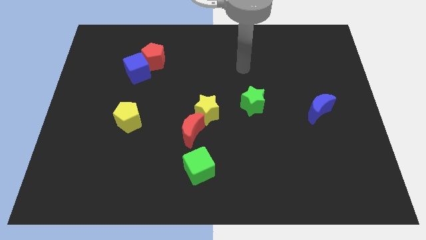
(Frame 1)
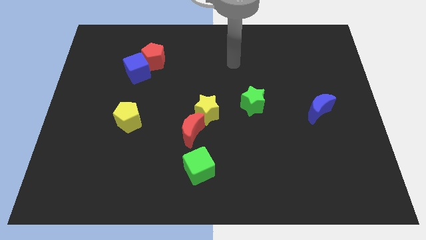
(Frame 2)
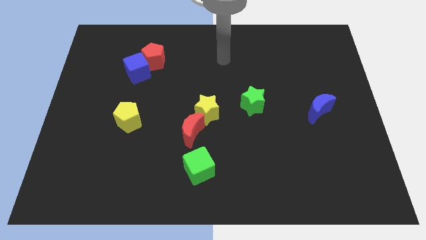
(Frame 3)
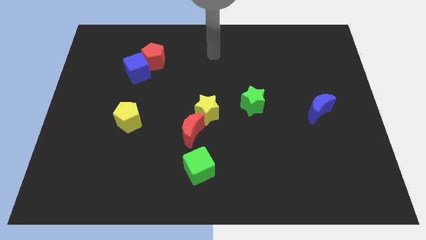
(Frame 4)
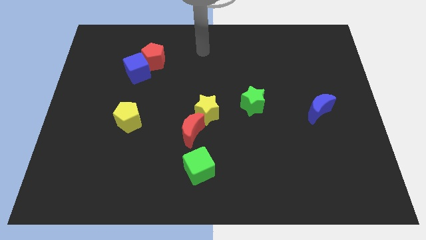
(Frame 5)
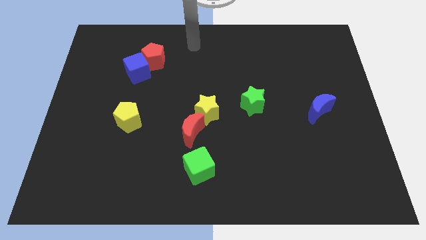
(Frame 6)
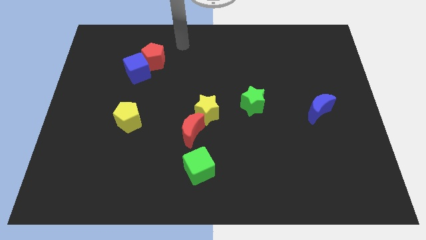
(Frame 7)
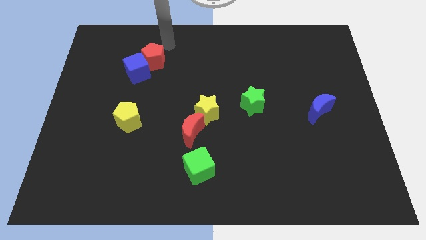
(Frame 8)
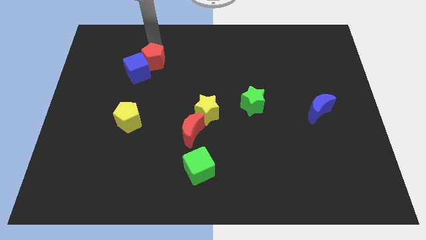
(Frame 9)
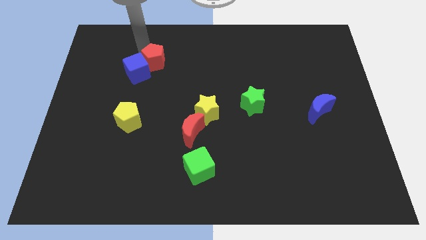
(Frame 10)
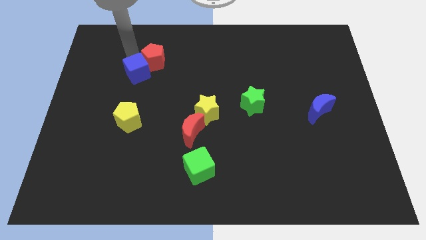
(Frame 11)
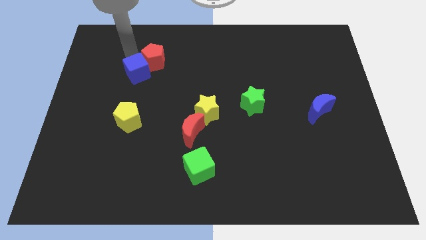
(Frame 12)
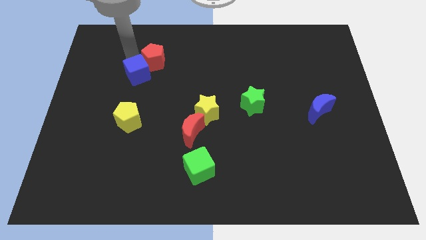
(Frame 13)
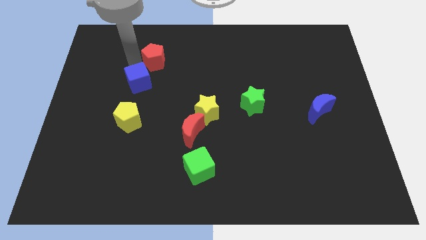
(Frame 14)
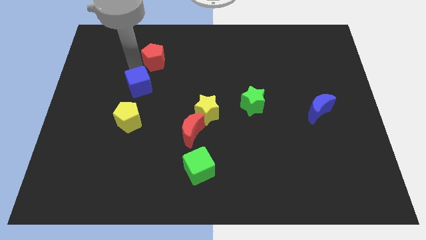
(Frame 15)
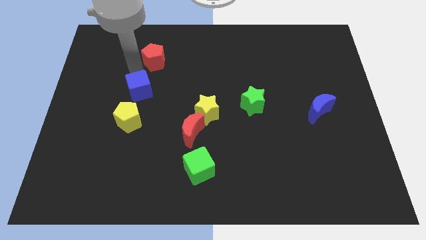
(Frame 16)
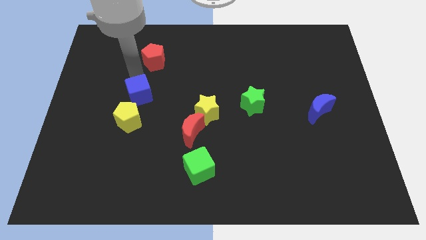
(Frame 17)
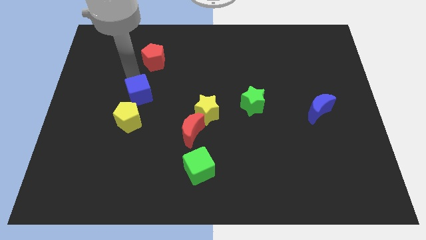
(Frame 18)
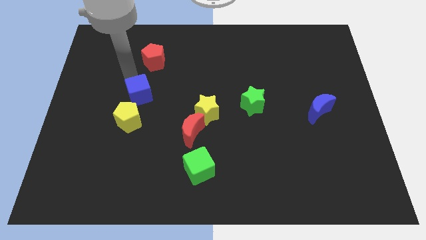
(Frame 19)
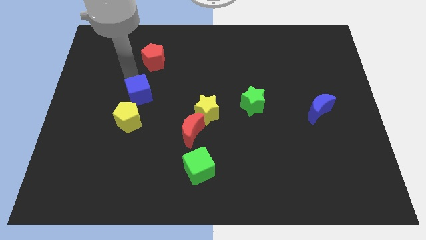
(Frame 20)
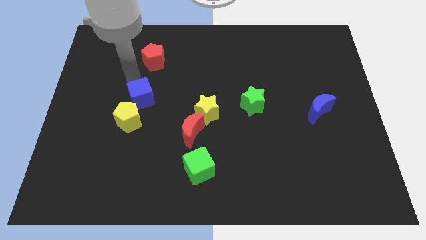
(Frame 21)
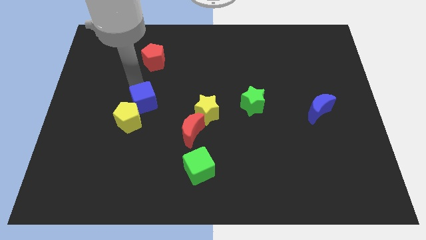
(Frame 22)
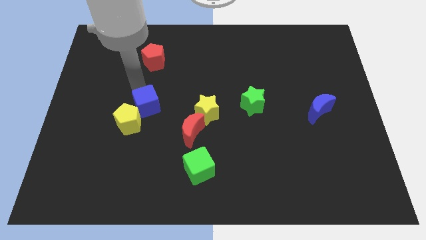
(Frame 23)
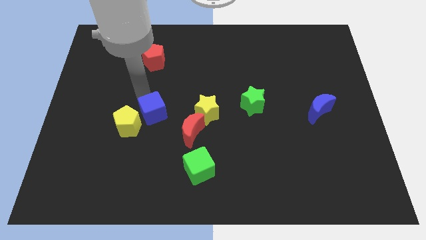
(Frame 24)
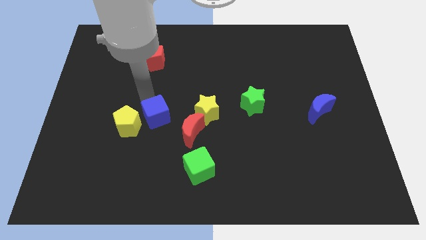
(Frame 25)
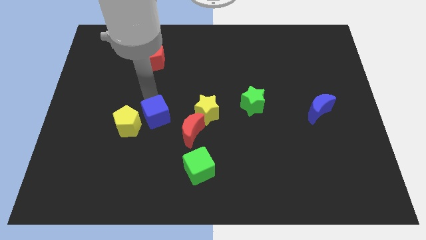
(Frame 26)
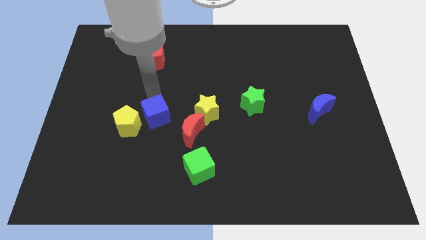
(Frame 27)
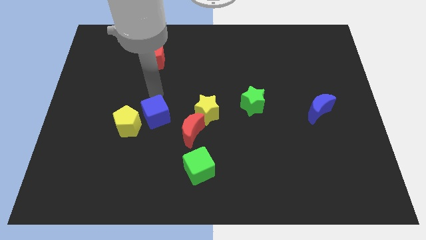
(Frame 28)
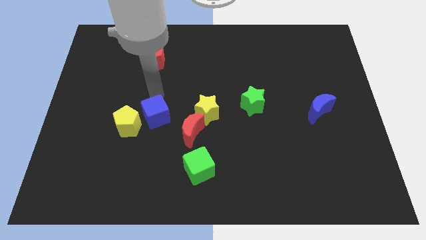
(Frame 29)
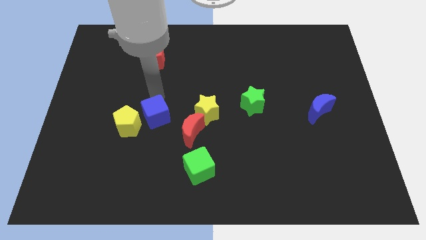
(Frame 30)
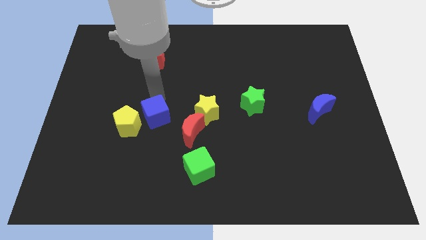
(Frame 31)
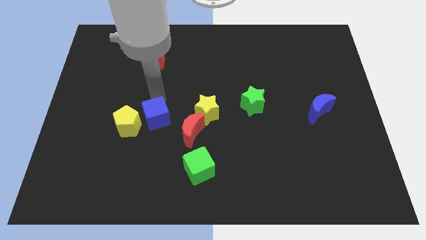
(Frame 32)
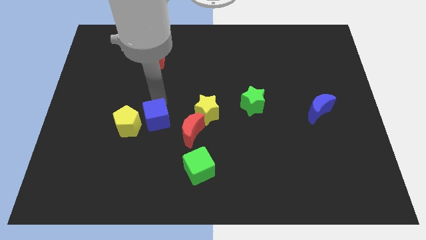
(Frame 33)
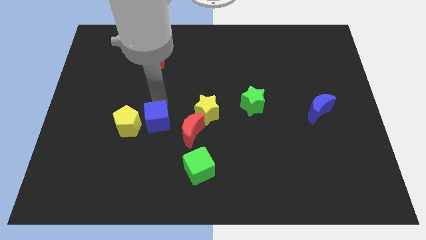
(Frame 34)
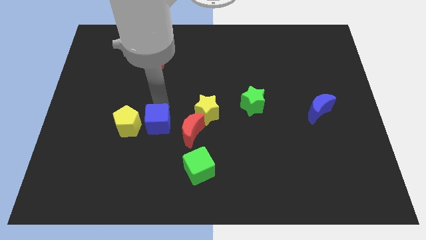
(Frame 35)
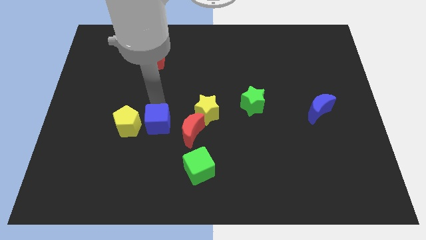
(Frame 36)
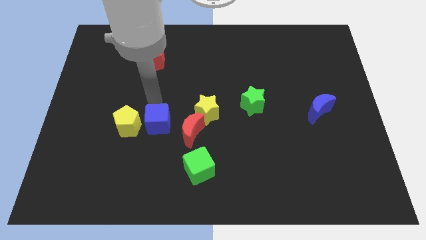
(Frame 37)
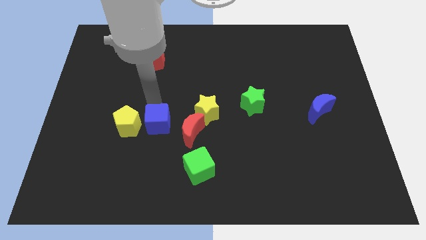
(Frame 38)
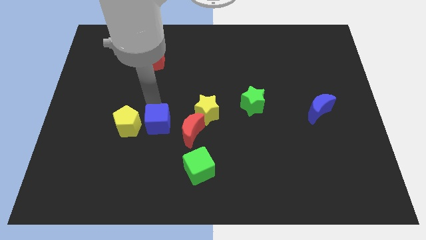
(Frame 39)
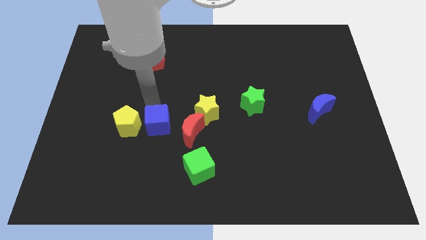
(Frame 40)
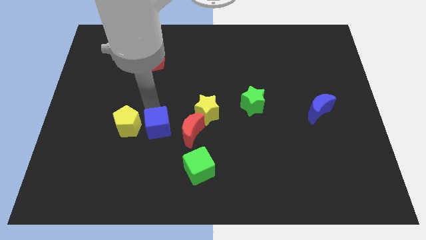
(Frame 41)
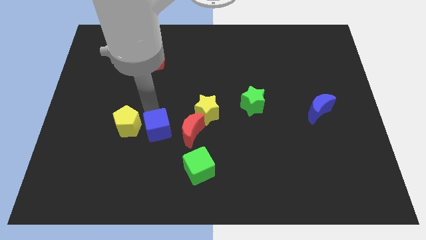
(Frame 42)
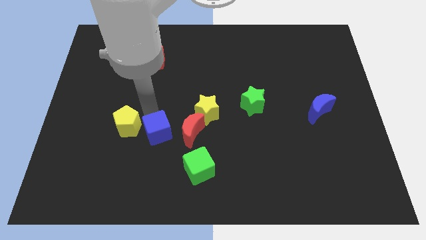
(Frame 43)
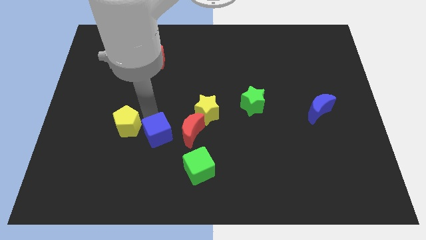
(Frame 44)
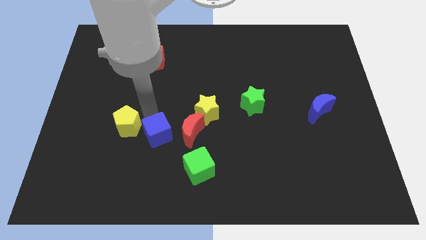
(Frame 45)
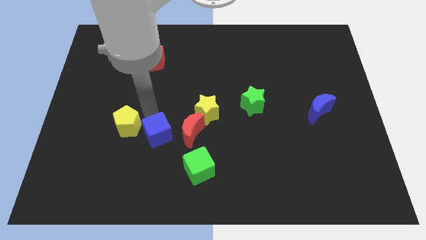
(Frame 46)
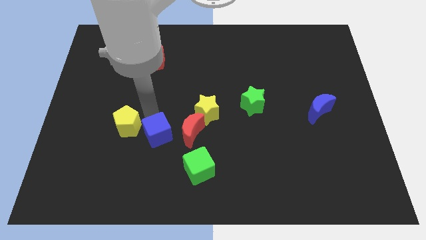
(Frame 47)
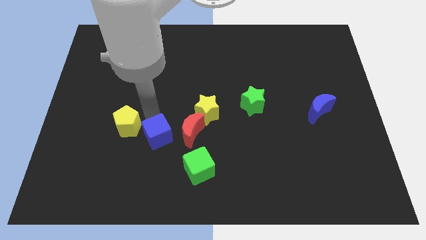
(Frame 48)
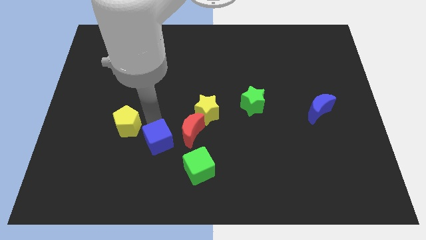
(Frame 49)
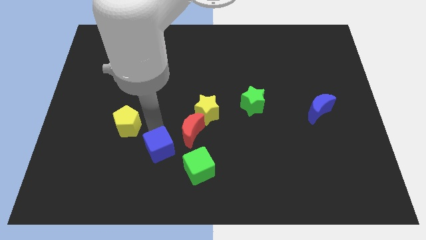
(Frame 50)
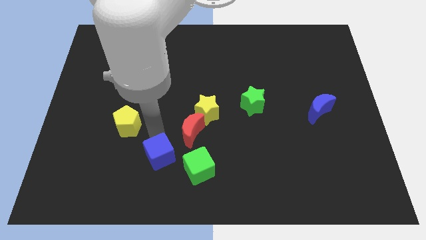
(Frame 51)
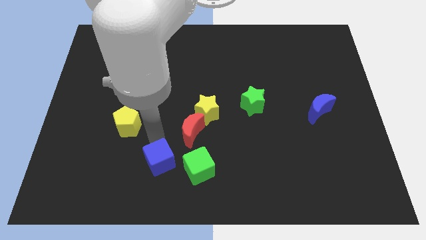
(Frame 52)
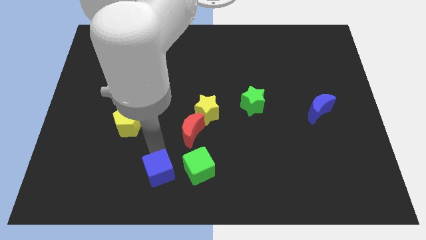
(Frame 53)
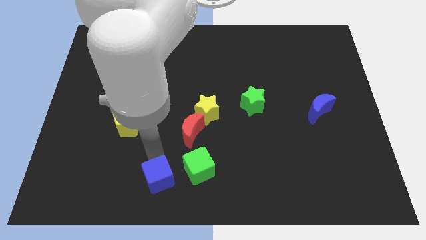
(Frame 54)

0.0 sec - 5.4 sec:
move the blue cube to the bottom side

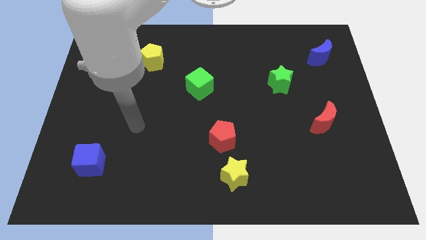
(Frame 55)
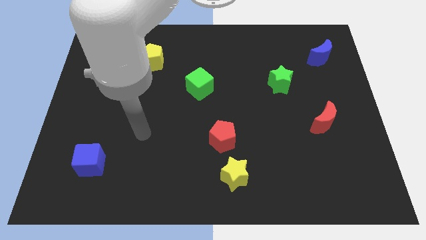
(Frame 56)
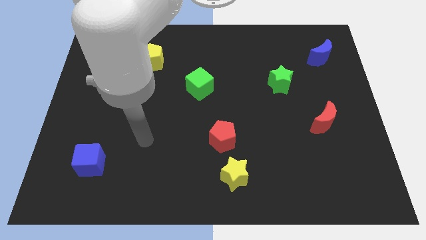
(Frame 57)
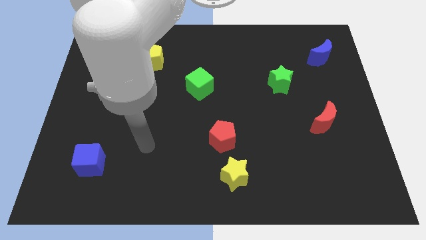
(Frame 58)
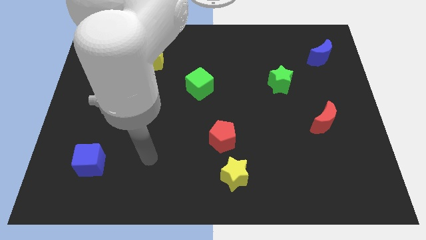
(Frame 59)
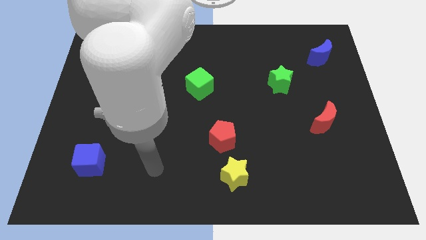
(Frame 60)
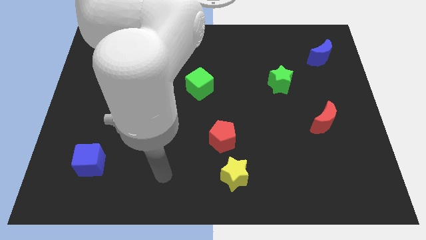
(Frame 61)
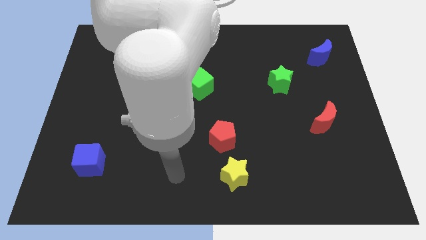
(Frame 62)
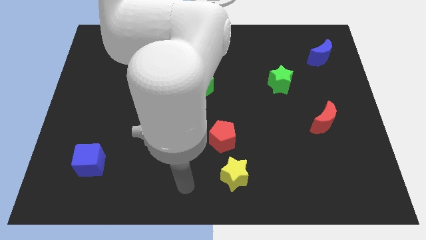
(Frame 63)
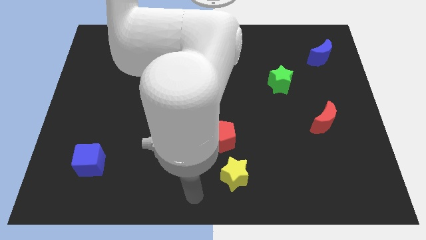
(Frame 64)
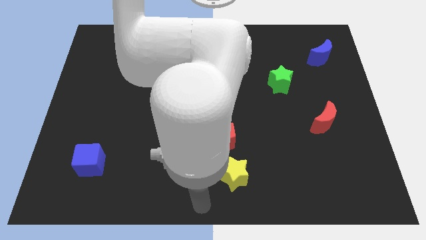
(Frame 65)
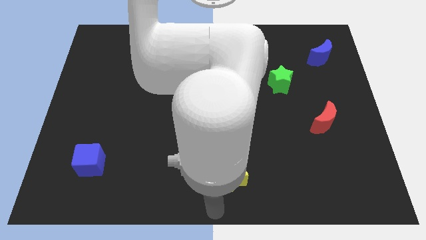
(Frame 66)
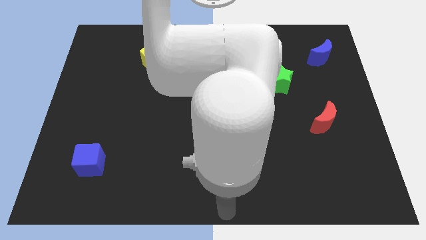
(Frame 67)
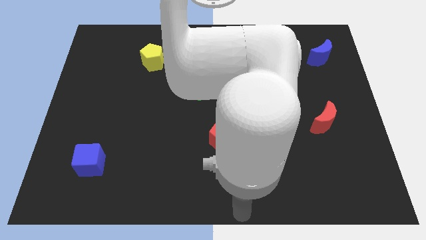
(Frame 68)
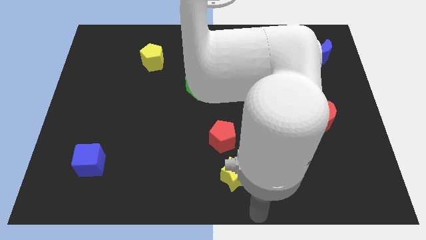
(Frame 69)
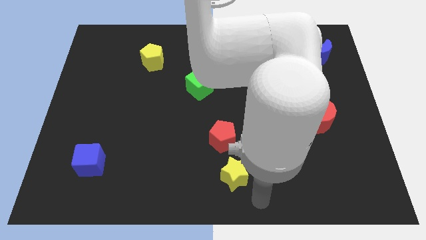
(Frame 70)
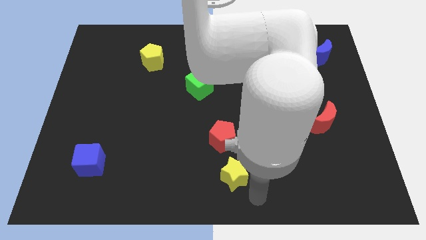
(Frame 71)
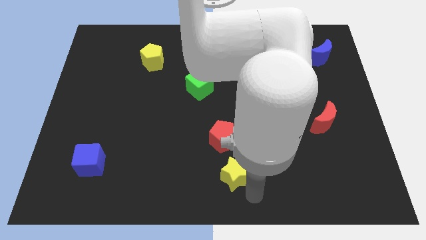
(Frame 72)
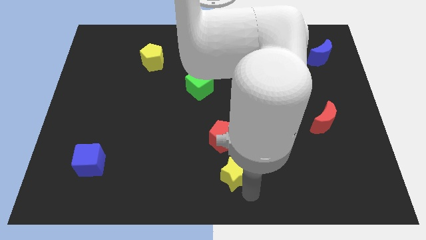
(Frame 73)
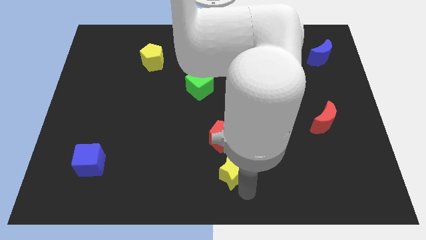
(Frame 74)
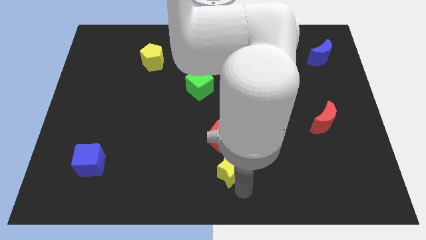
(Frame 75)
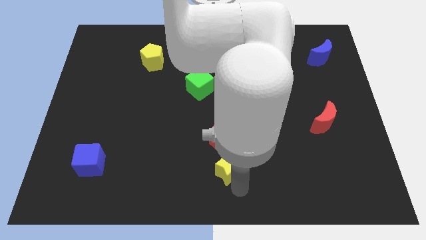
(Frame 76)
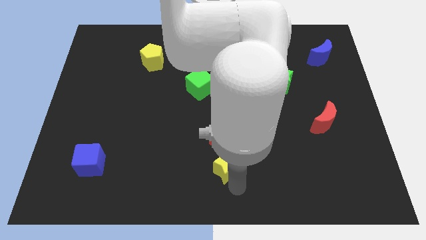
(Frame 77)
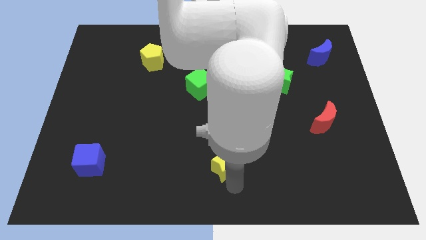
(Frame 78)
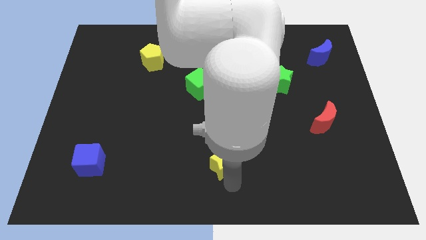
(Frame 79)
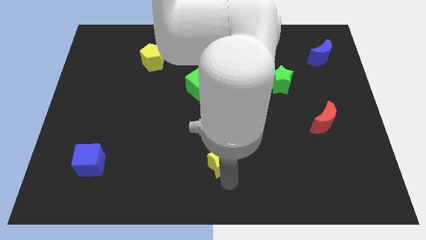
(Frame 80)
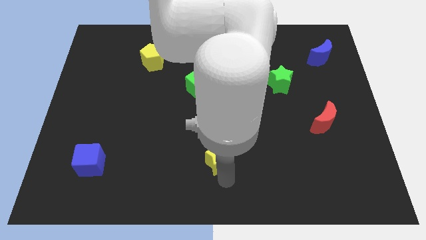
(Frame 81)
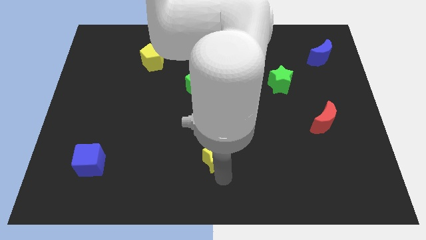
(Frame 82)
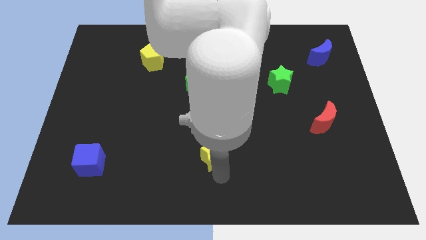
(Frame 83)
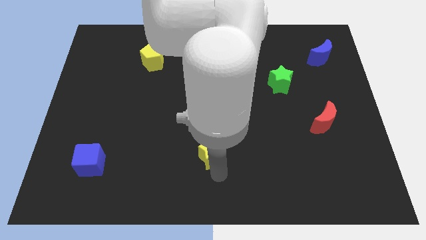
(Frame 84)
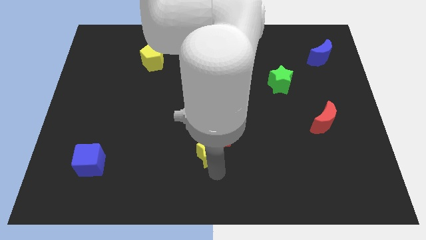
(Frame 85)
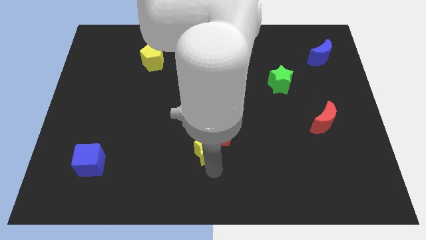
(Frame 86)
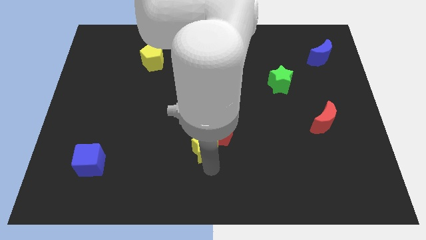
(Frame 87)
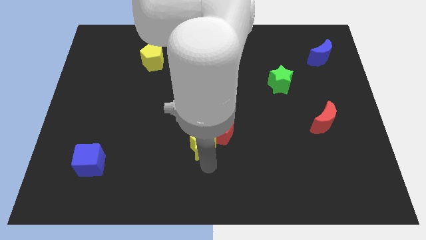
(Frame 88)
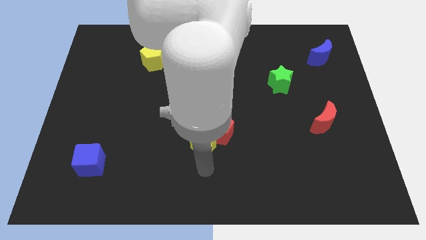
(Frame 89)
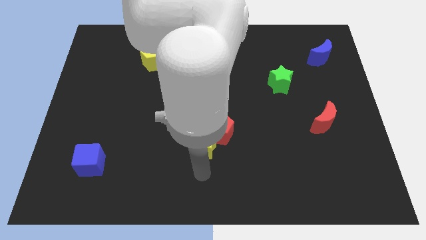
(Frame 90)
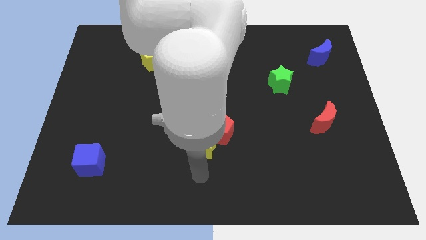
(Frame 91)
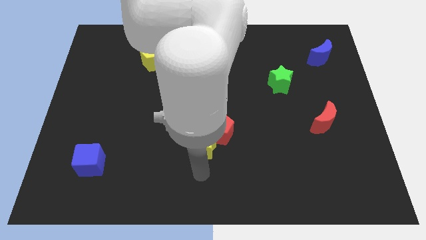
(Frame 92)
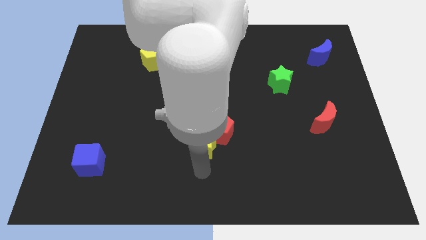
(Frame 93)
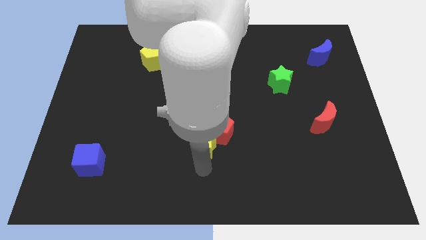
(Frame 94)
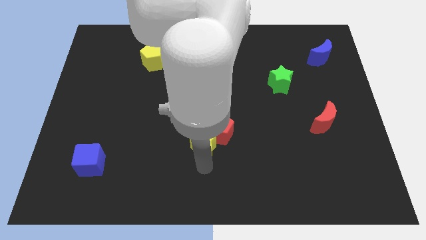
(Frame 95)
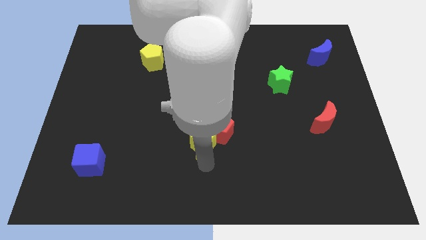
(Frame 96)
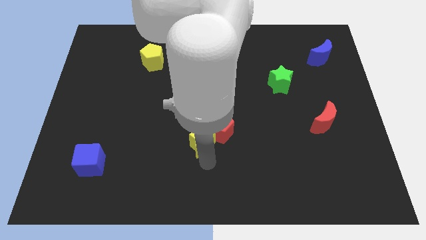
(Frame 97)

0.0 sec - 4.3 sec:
put the yellow star to the middle
